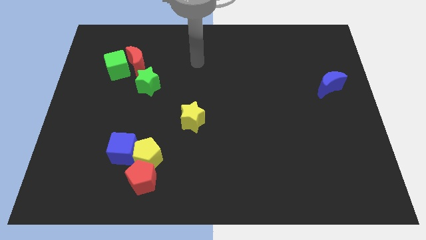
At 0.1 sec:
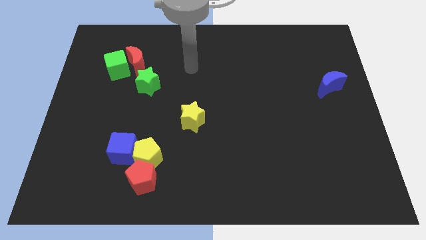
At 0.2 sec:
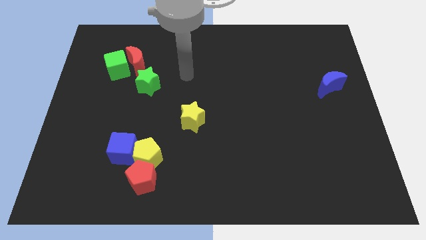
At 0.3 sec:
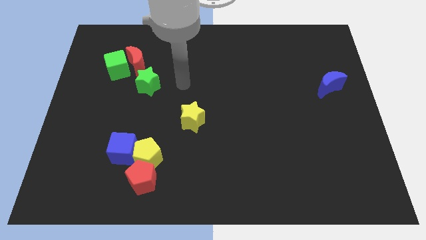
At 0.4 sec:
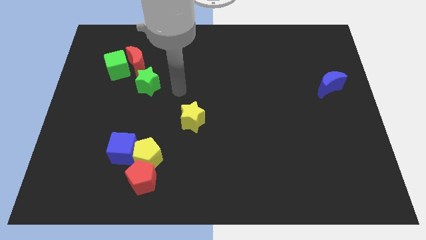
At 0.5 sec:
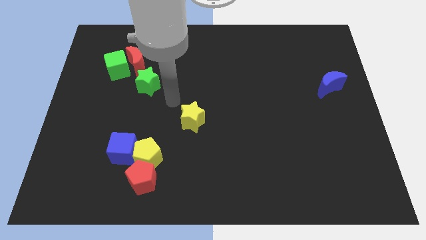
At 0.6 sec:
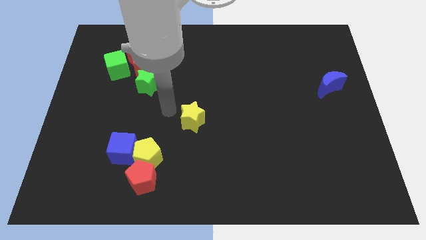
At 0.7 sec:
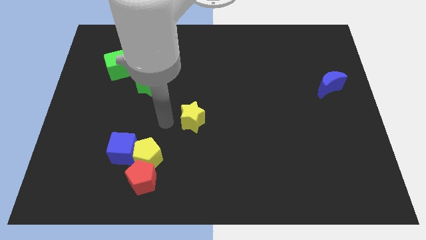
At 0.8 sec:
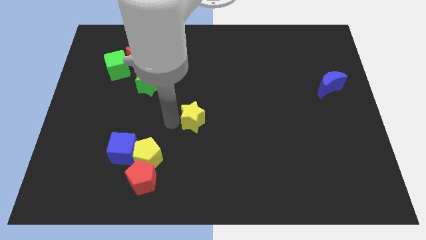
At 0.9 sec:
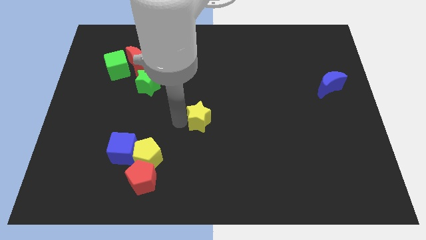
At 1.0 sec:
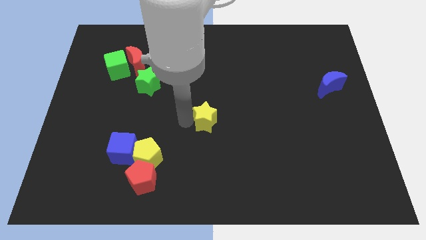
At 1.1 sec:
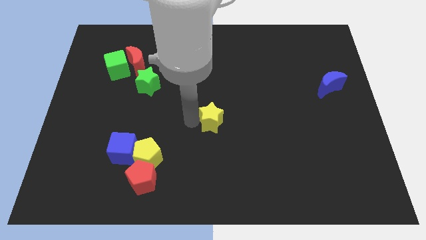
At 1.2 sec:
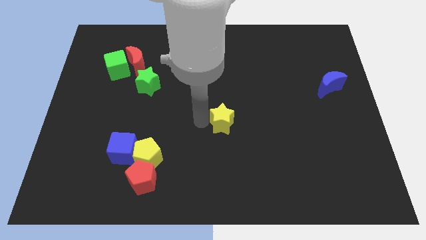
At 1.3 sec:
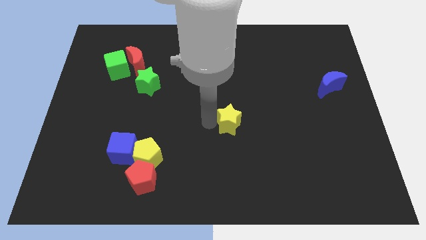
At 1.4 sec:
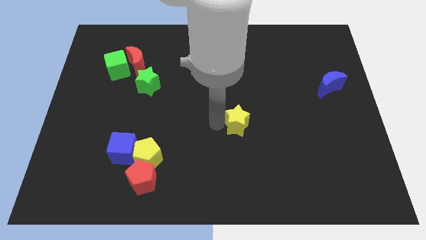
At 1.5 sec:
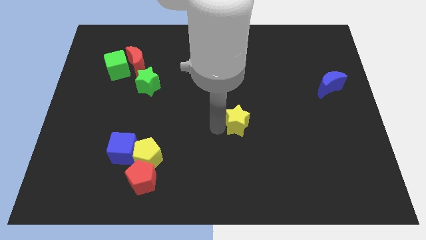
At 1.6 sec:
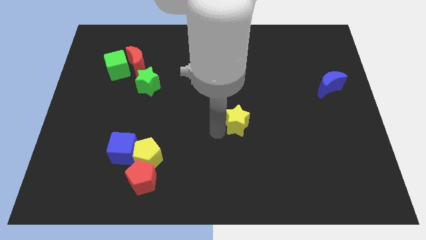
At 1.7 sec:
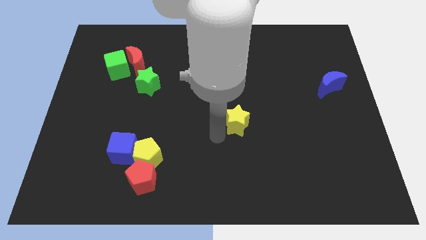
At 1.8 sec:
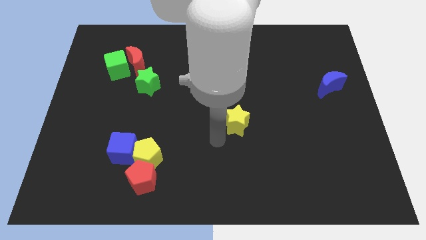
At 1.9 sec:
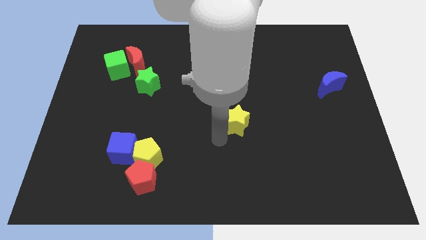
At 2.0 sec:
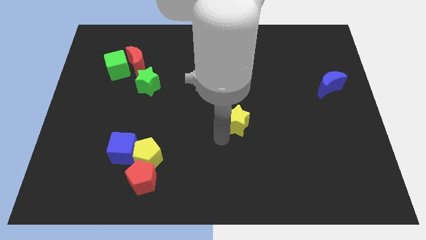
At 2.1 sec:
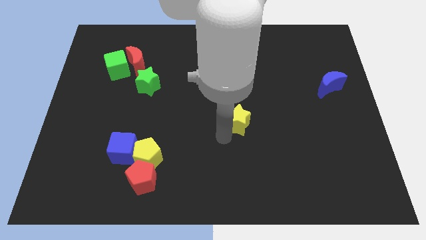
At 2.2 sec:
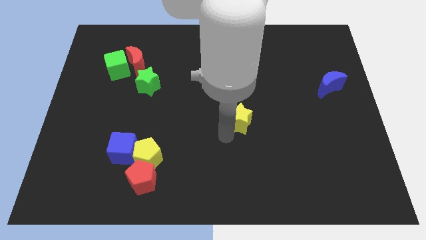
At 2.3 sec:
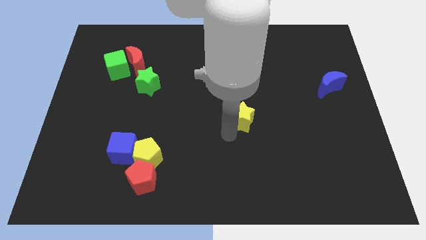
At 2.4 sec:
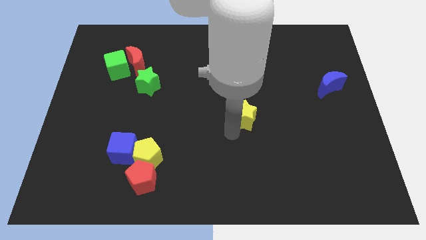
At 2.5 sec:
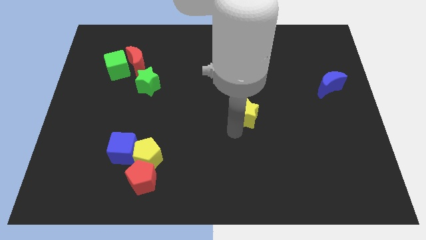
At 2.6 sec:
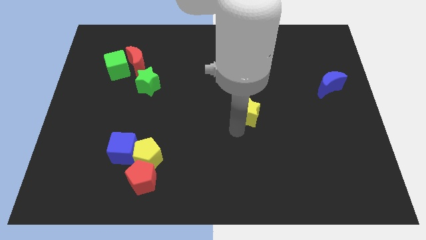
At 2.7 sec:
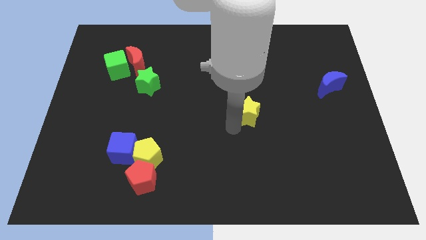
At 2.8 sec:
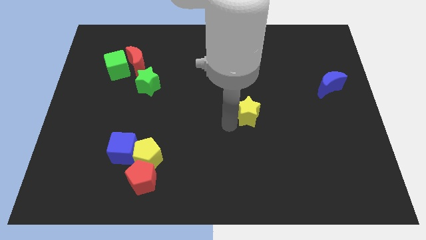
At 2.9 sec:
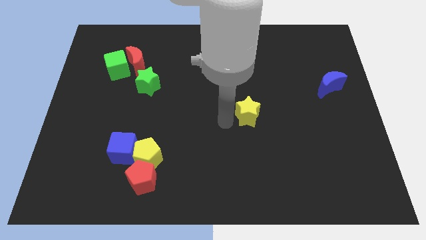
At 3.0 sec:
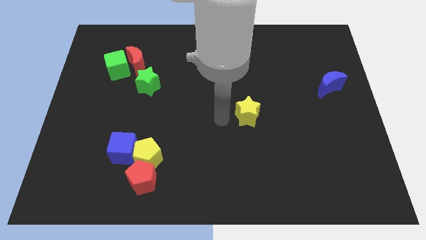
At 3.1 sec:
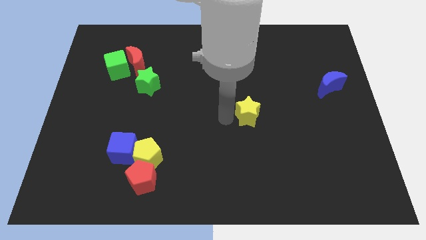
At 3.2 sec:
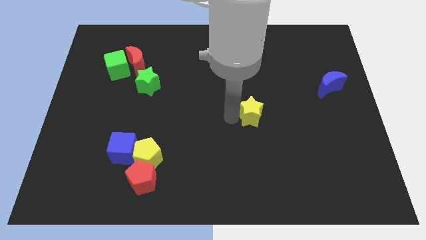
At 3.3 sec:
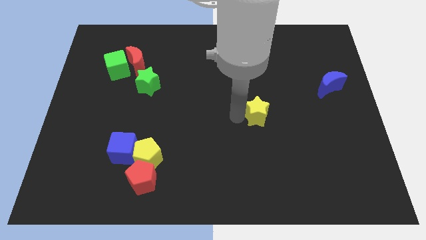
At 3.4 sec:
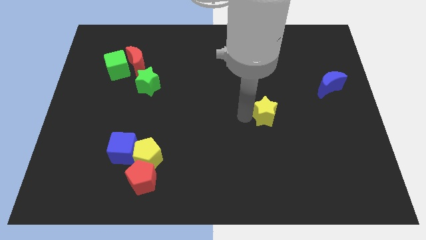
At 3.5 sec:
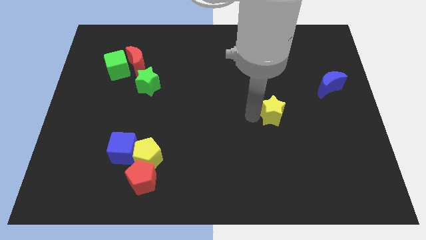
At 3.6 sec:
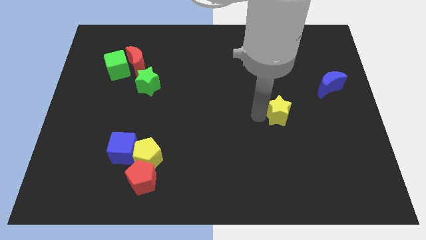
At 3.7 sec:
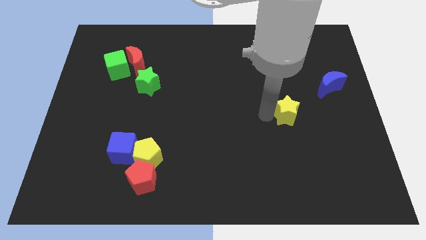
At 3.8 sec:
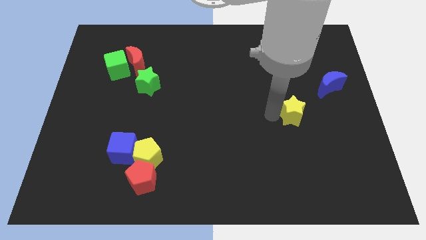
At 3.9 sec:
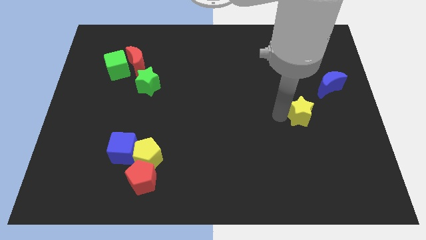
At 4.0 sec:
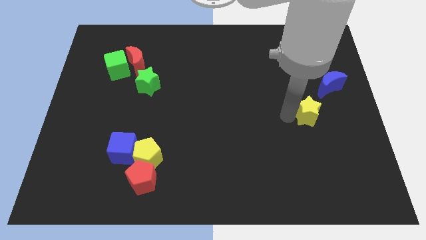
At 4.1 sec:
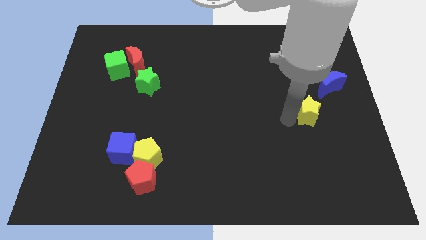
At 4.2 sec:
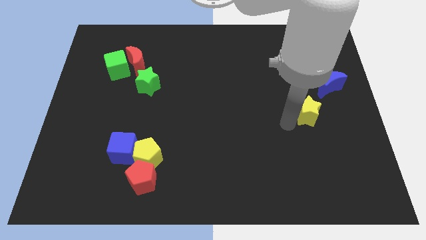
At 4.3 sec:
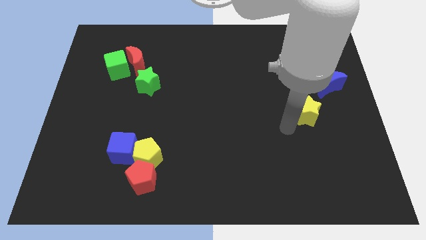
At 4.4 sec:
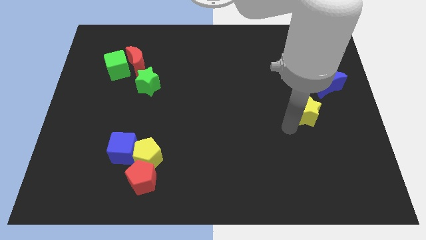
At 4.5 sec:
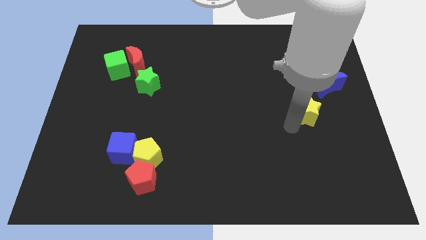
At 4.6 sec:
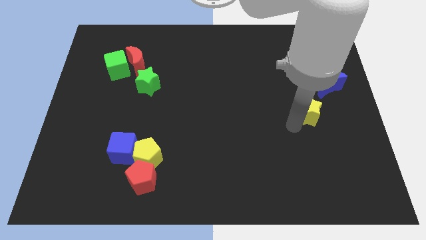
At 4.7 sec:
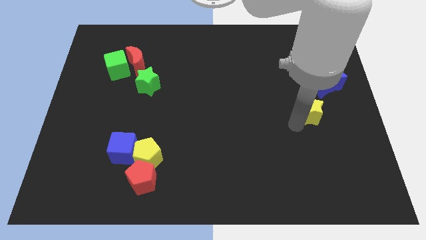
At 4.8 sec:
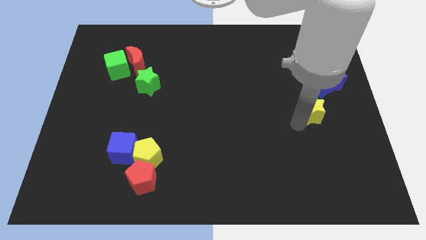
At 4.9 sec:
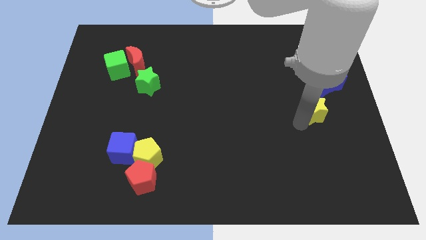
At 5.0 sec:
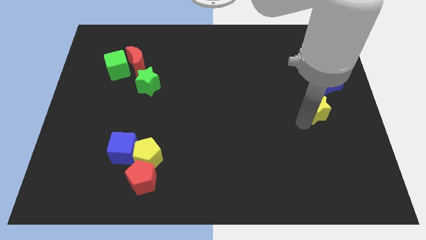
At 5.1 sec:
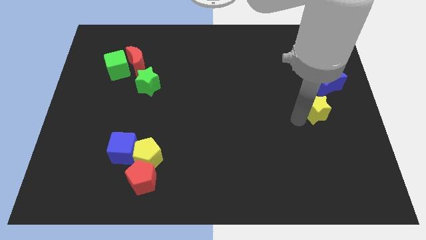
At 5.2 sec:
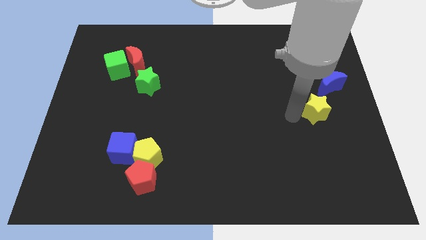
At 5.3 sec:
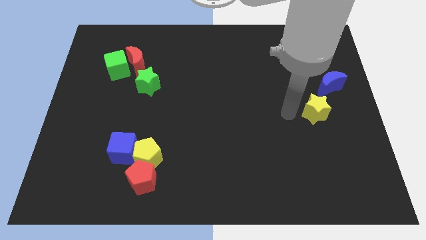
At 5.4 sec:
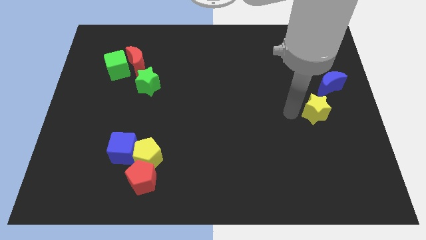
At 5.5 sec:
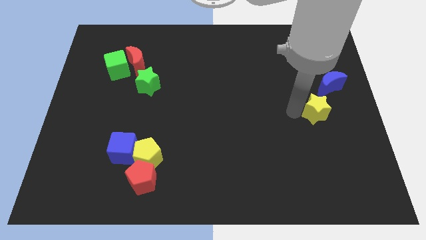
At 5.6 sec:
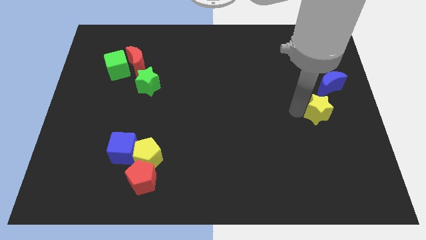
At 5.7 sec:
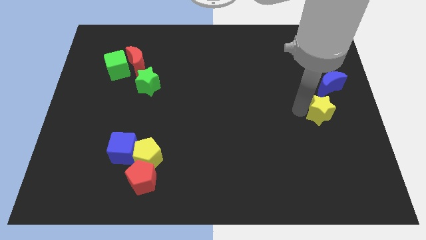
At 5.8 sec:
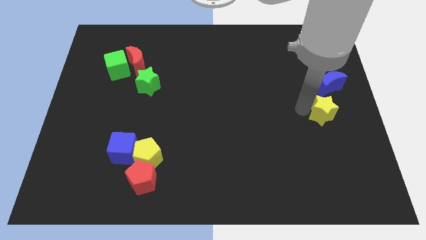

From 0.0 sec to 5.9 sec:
push the yellow star to the right side

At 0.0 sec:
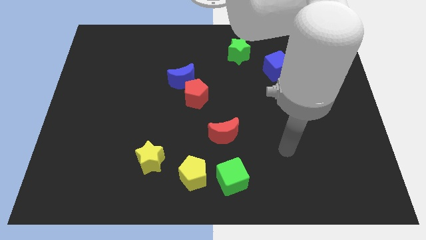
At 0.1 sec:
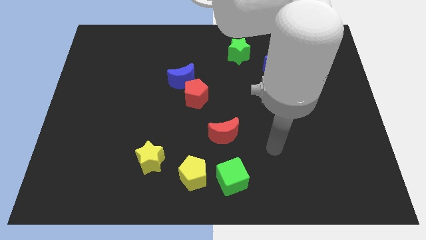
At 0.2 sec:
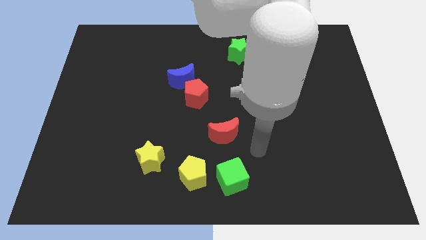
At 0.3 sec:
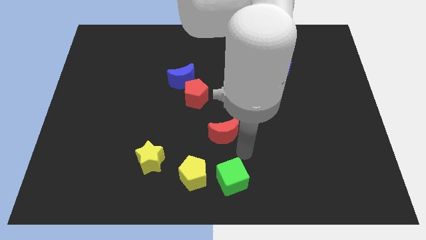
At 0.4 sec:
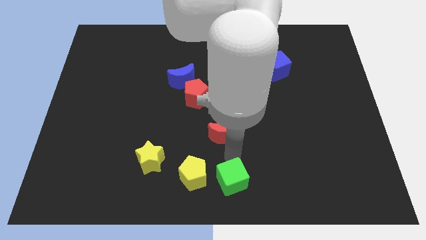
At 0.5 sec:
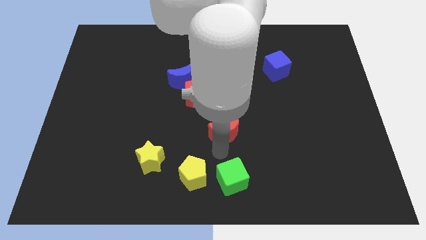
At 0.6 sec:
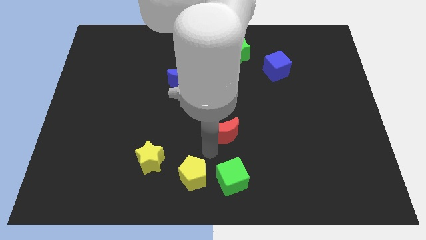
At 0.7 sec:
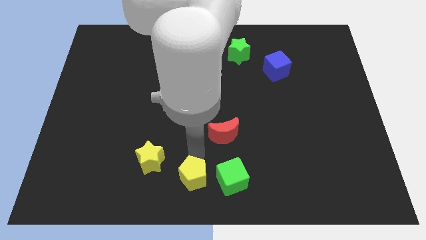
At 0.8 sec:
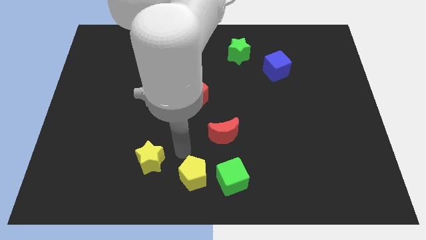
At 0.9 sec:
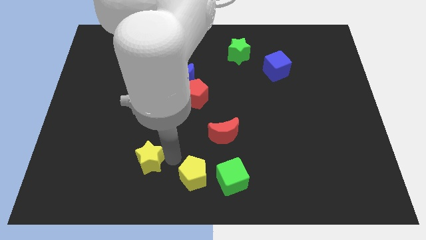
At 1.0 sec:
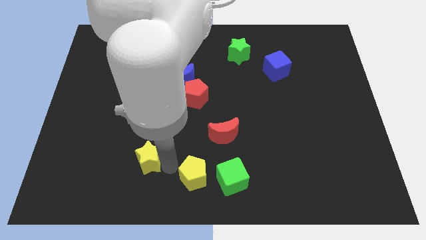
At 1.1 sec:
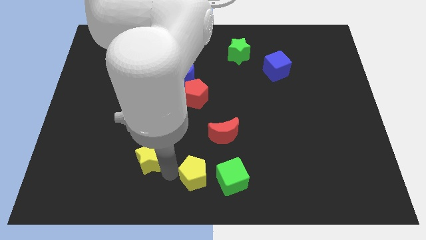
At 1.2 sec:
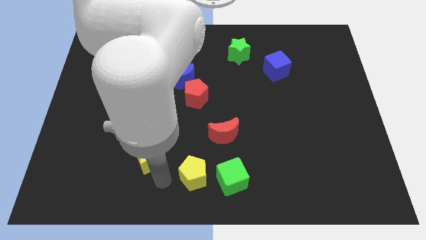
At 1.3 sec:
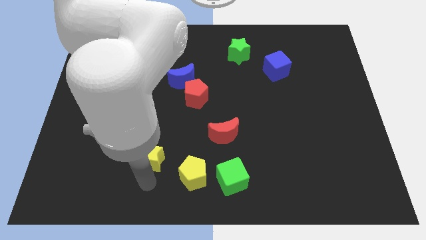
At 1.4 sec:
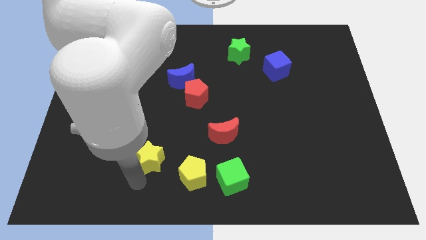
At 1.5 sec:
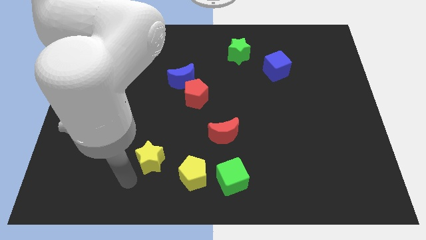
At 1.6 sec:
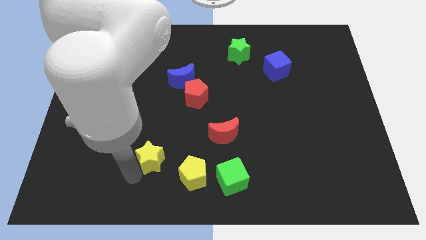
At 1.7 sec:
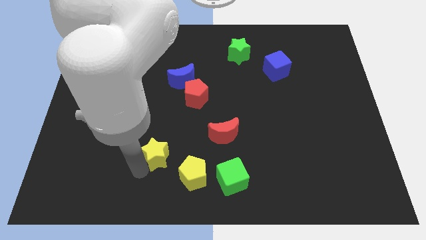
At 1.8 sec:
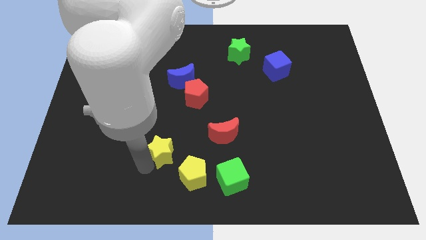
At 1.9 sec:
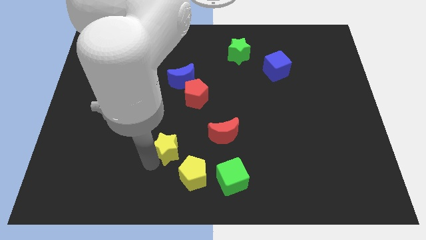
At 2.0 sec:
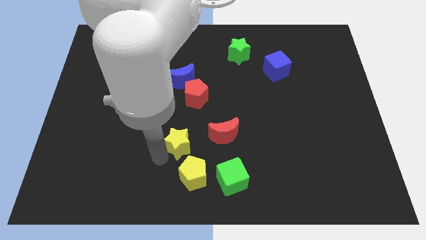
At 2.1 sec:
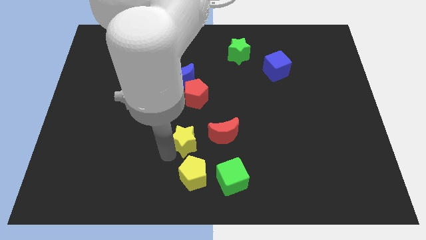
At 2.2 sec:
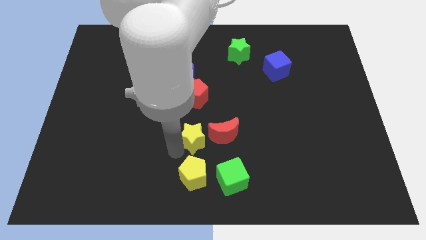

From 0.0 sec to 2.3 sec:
slide the yellow star to the middle of the board
